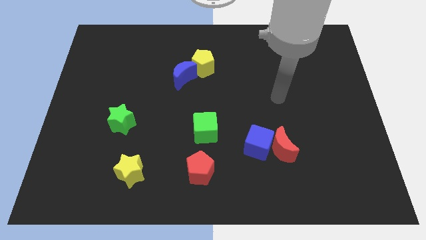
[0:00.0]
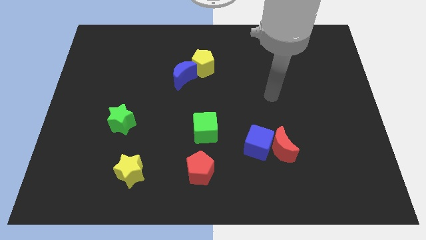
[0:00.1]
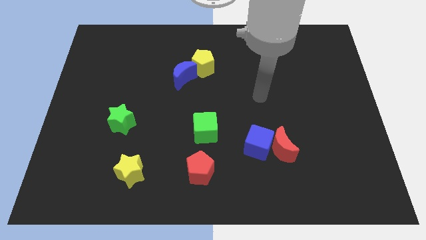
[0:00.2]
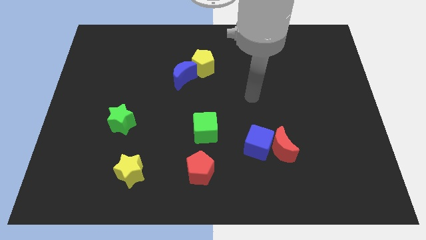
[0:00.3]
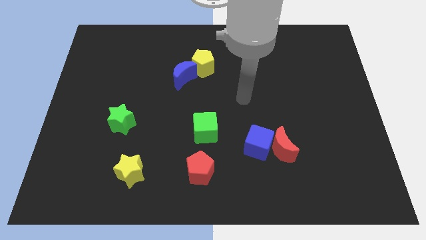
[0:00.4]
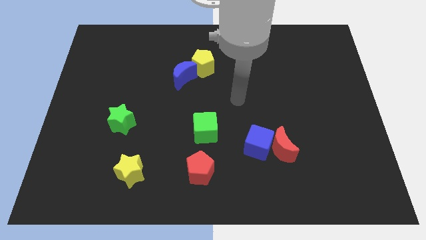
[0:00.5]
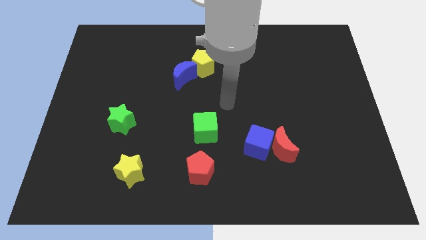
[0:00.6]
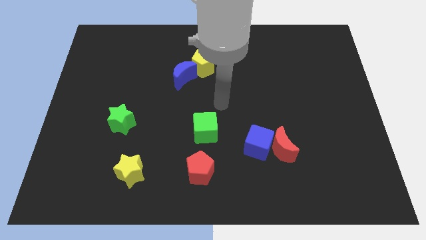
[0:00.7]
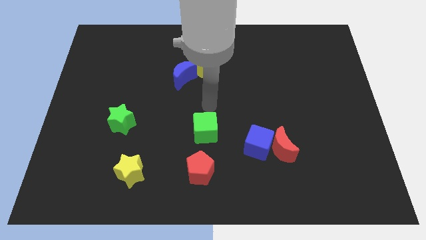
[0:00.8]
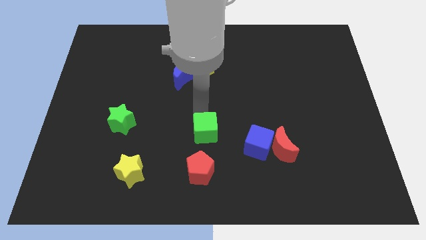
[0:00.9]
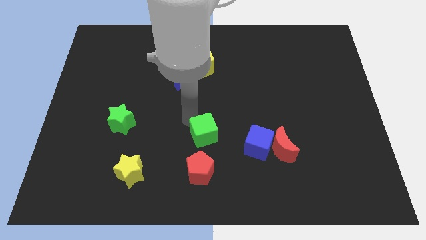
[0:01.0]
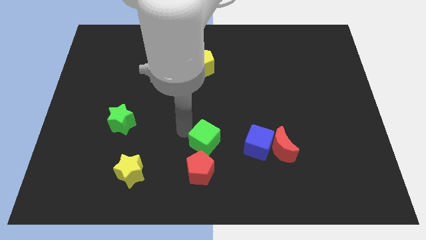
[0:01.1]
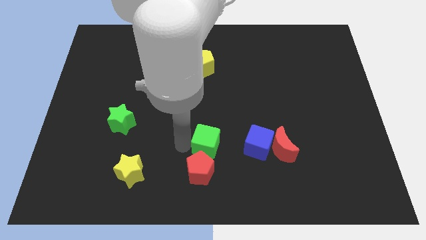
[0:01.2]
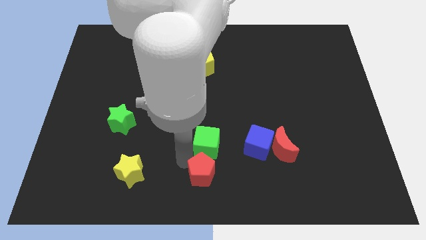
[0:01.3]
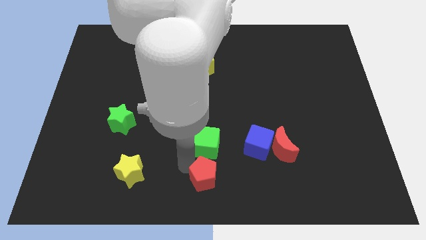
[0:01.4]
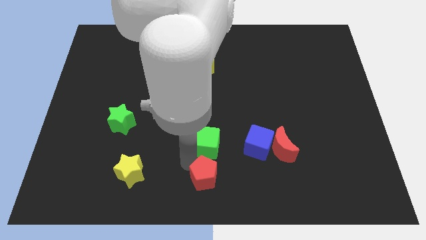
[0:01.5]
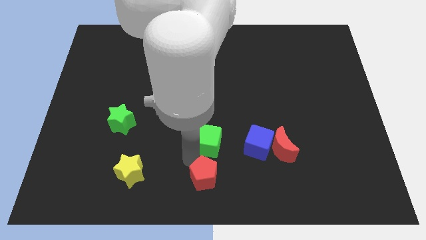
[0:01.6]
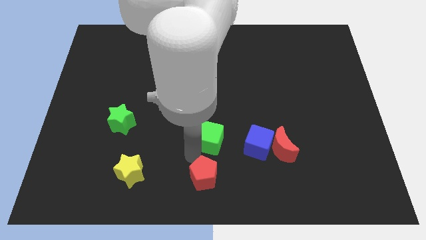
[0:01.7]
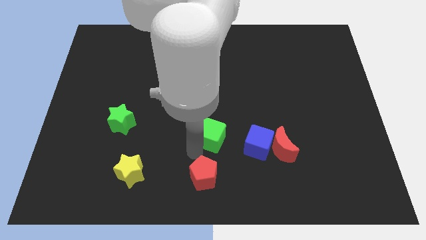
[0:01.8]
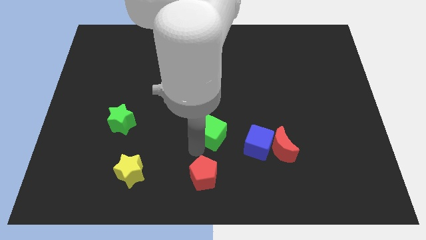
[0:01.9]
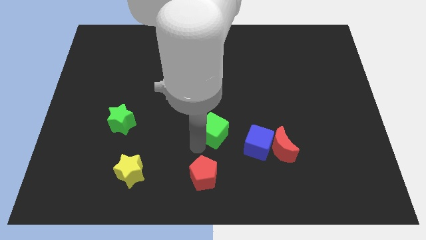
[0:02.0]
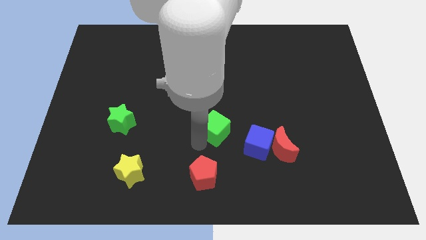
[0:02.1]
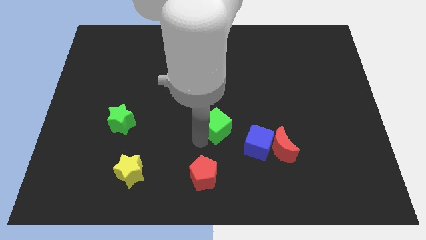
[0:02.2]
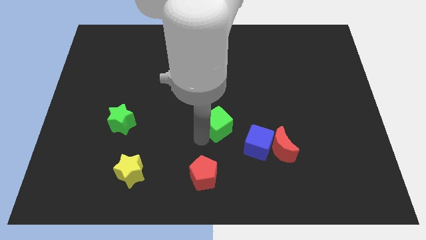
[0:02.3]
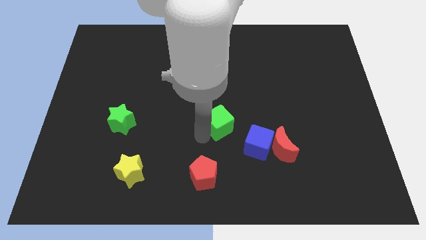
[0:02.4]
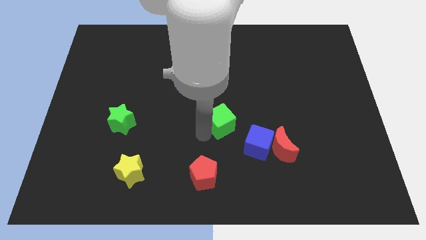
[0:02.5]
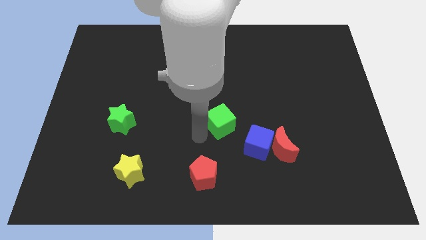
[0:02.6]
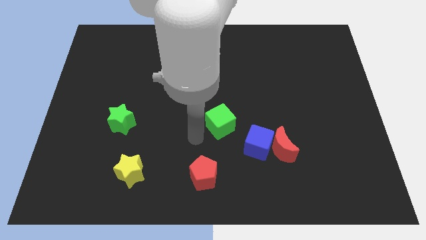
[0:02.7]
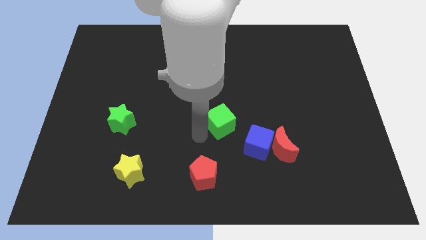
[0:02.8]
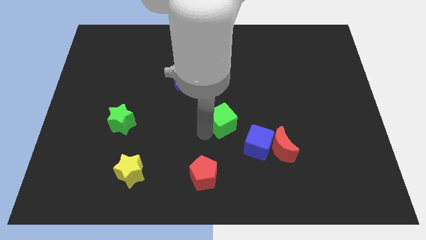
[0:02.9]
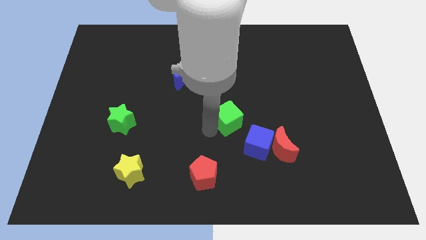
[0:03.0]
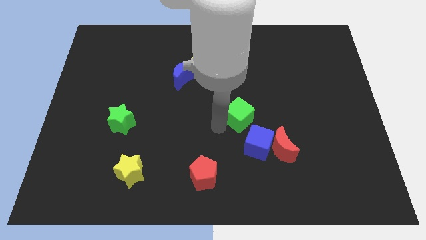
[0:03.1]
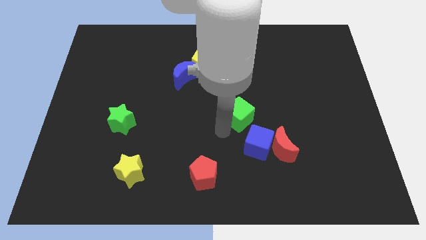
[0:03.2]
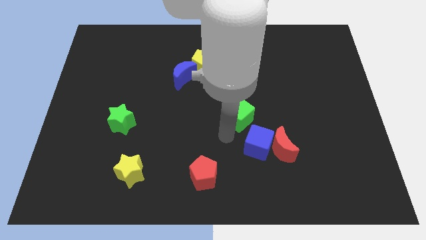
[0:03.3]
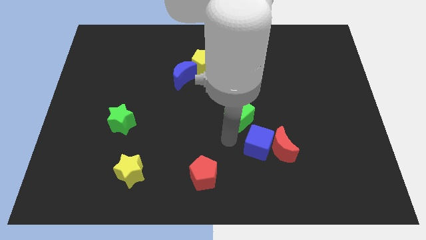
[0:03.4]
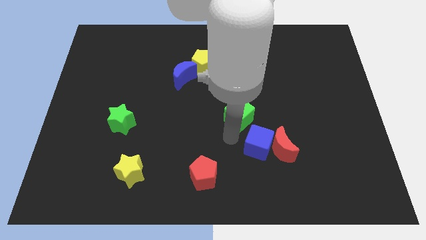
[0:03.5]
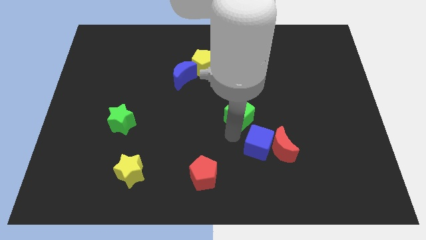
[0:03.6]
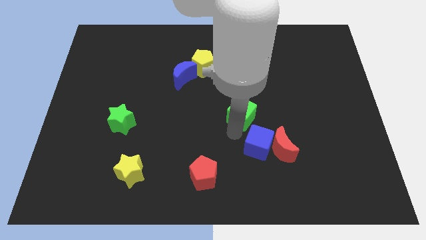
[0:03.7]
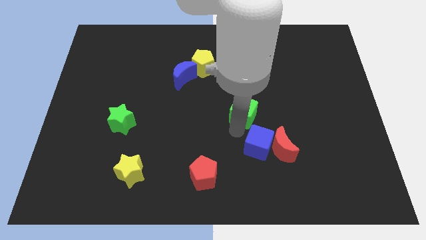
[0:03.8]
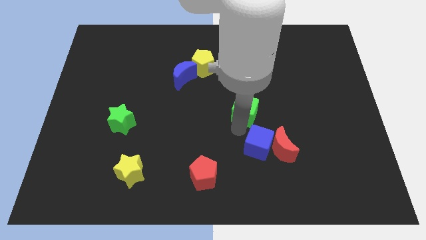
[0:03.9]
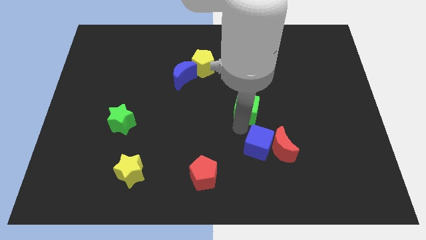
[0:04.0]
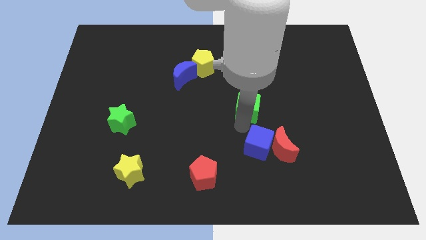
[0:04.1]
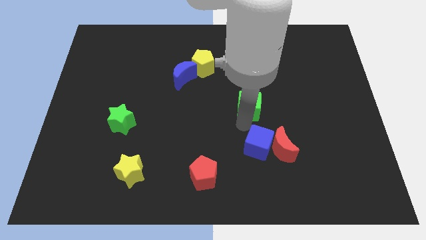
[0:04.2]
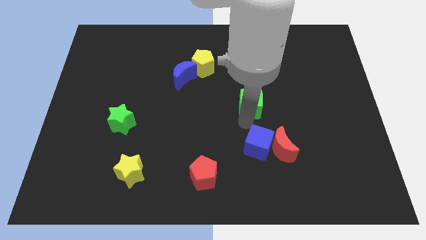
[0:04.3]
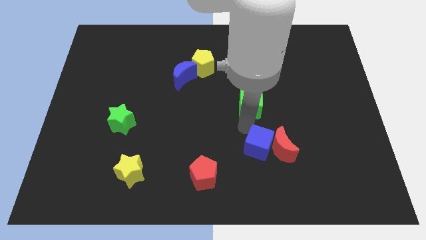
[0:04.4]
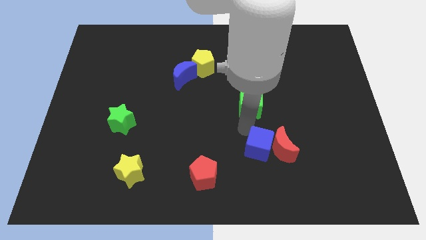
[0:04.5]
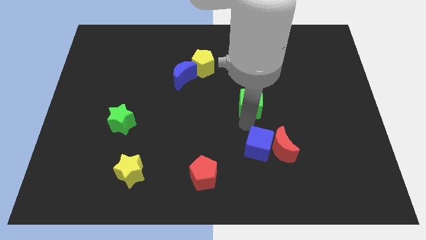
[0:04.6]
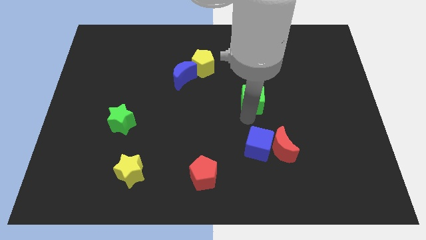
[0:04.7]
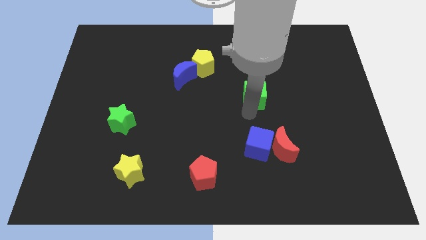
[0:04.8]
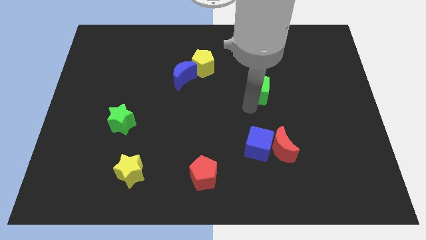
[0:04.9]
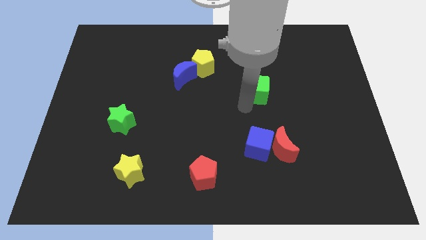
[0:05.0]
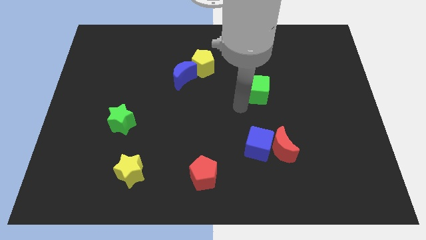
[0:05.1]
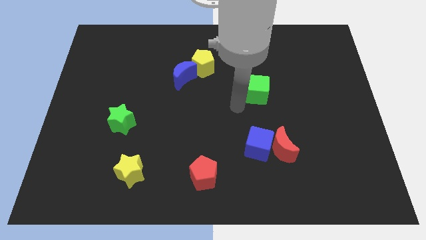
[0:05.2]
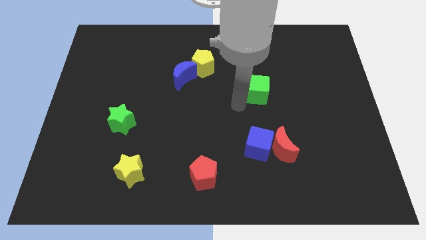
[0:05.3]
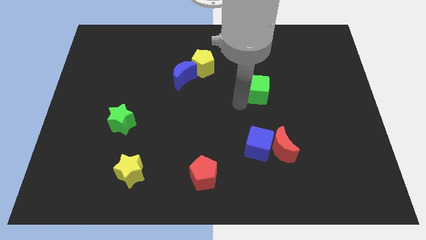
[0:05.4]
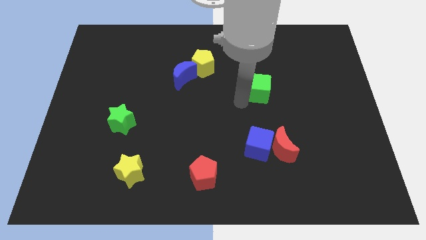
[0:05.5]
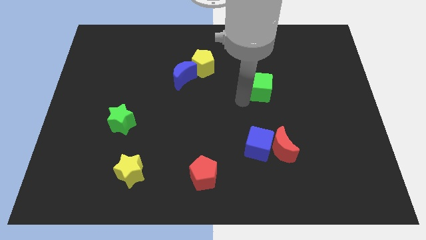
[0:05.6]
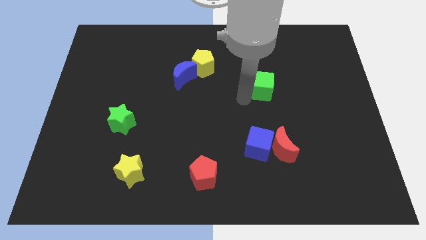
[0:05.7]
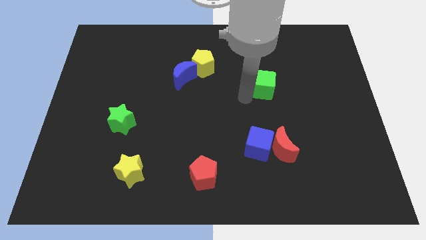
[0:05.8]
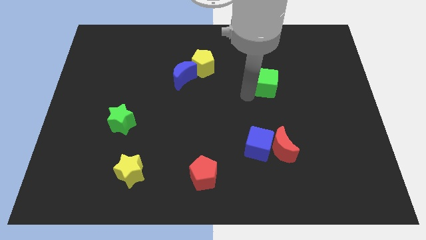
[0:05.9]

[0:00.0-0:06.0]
slide the green cube upwards and to the right diagonally

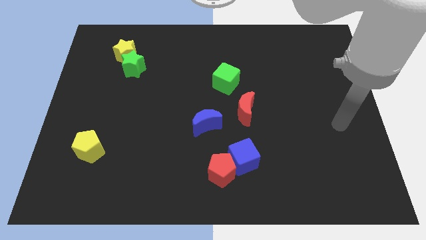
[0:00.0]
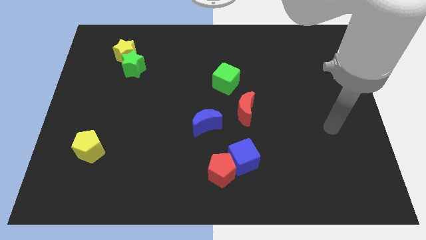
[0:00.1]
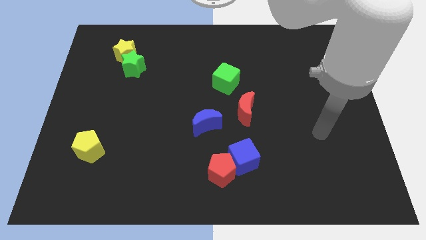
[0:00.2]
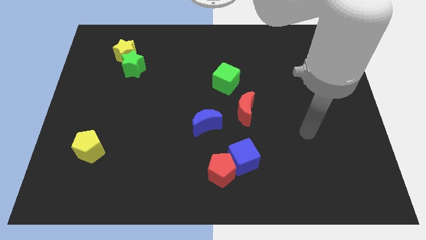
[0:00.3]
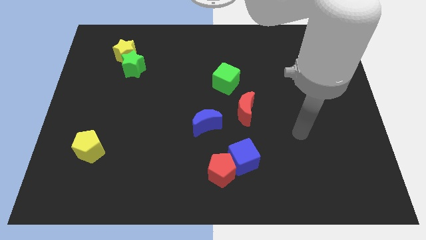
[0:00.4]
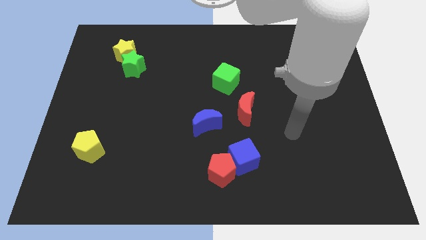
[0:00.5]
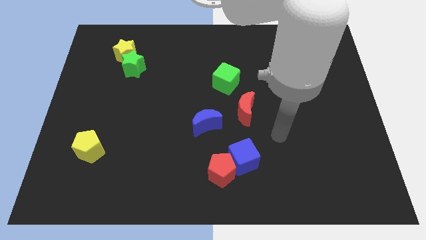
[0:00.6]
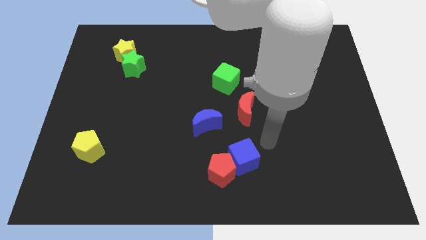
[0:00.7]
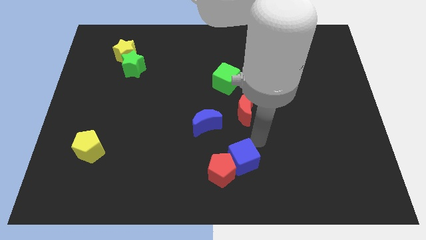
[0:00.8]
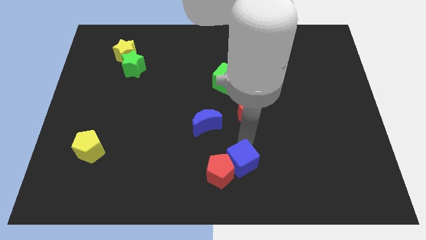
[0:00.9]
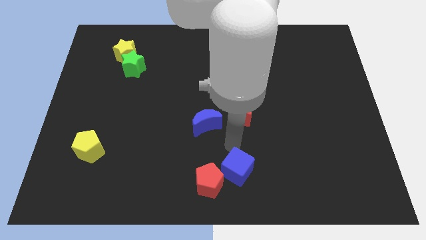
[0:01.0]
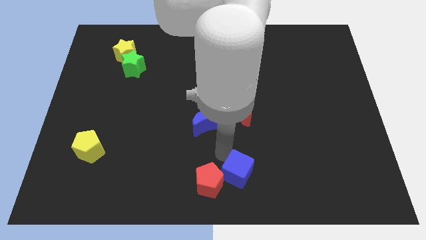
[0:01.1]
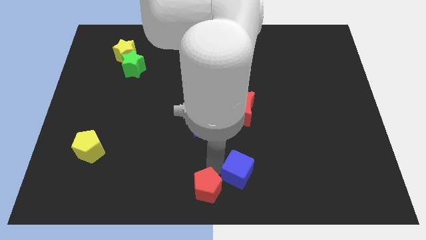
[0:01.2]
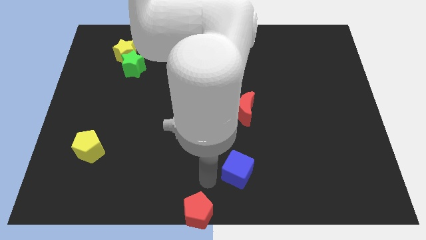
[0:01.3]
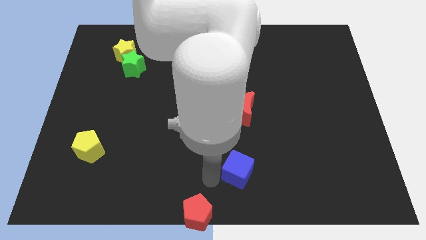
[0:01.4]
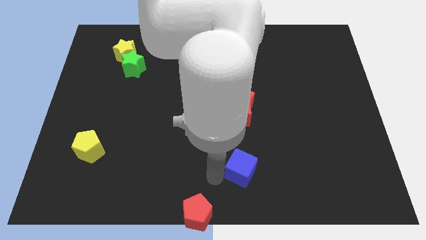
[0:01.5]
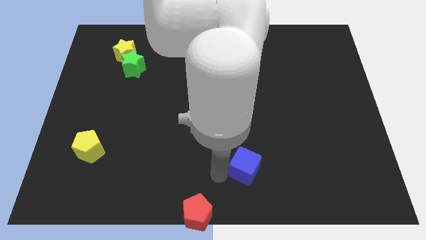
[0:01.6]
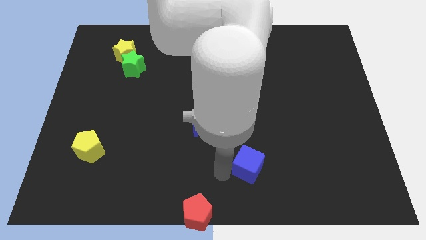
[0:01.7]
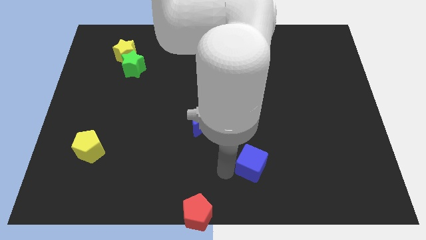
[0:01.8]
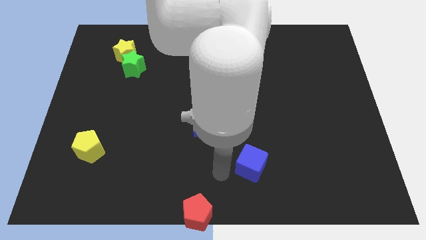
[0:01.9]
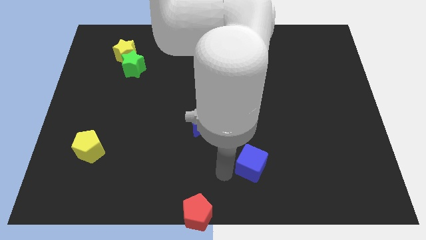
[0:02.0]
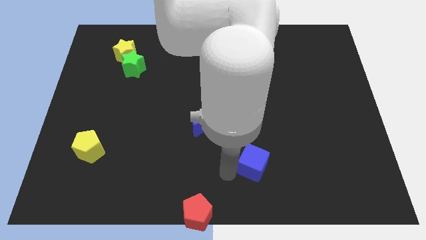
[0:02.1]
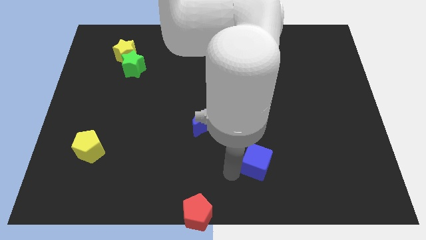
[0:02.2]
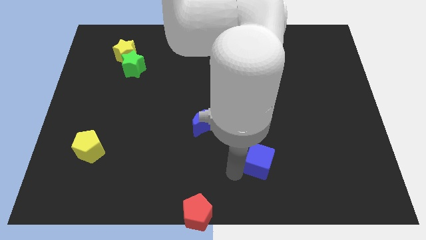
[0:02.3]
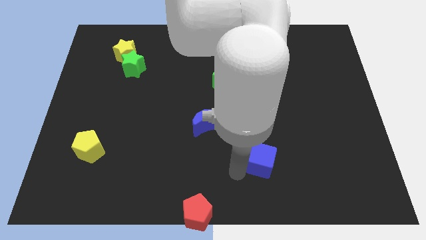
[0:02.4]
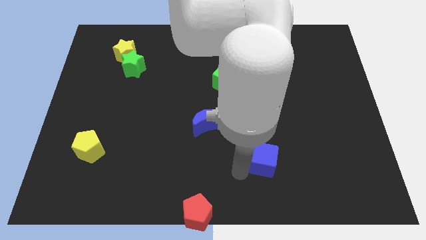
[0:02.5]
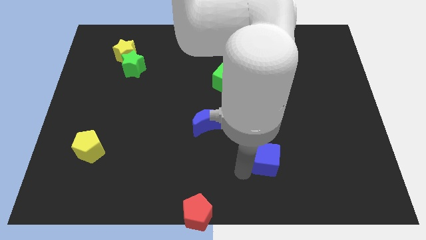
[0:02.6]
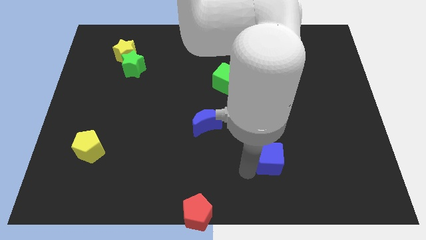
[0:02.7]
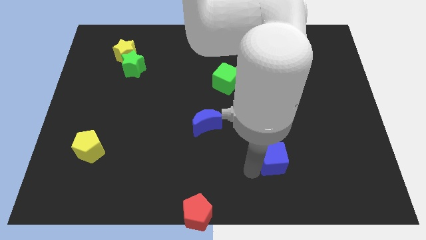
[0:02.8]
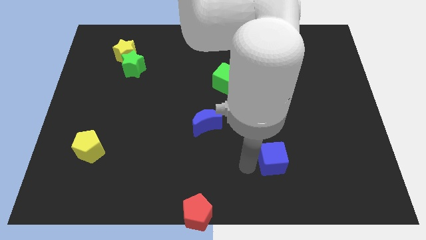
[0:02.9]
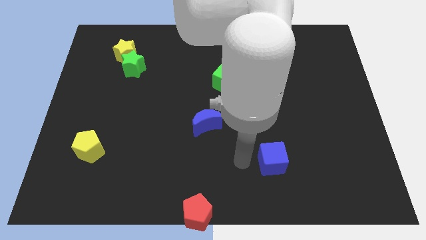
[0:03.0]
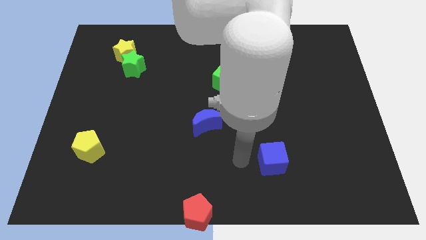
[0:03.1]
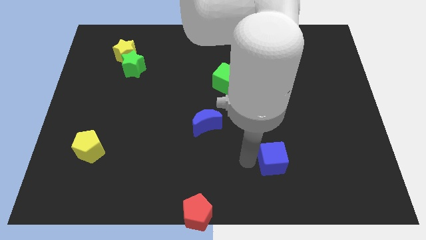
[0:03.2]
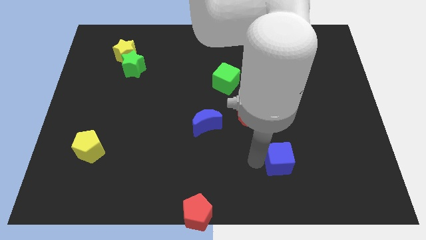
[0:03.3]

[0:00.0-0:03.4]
slide the blue cube a bit right
